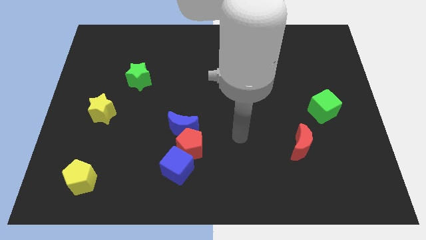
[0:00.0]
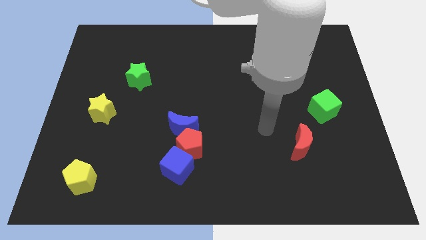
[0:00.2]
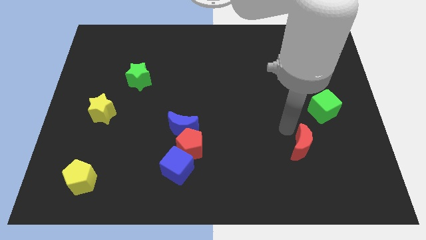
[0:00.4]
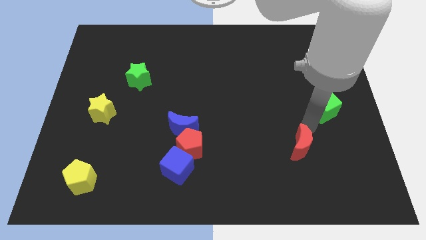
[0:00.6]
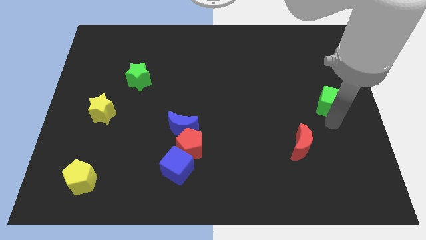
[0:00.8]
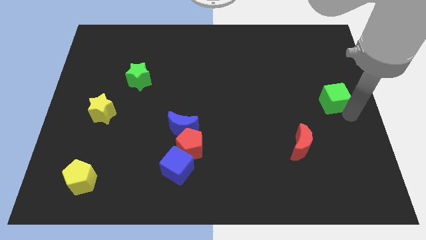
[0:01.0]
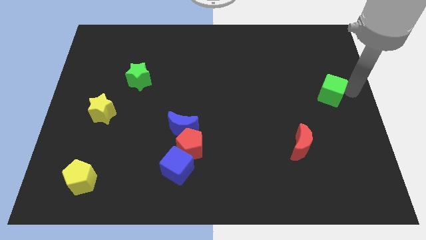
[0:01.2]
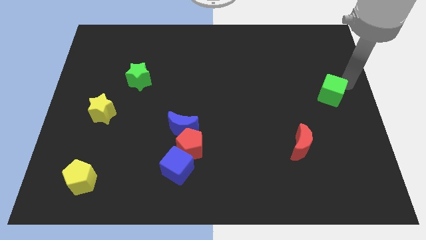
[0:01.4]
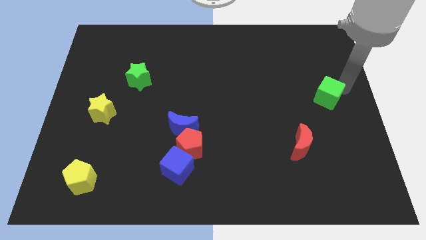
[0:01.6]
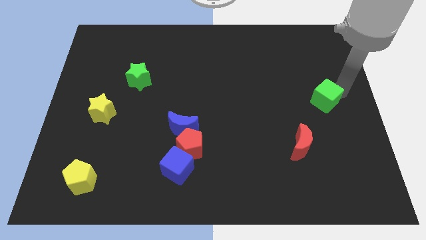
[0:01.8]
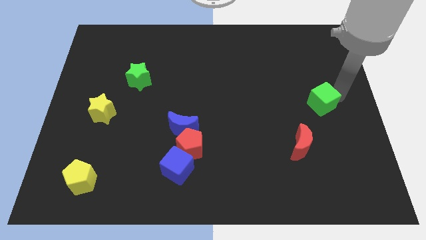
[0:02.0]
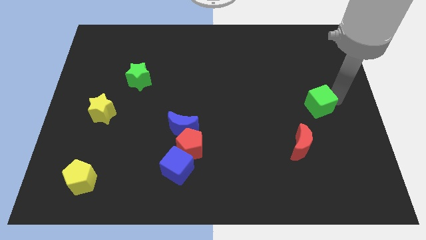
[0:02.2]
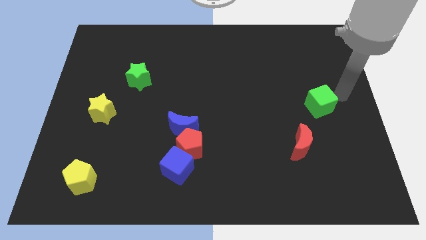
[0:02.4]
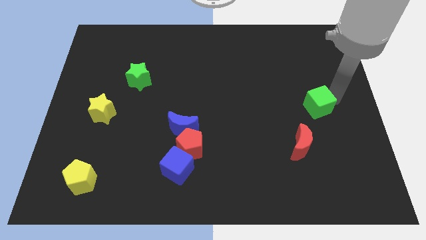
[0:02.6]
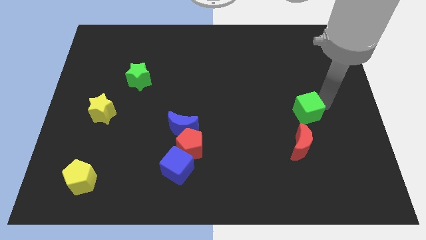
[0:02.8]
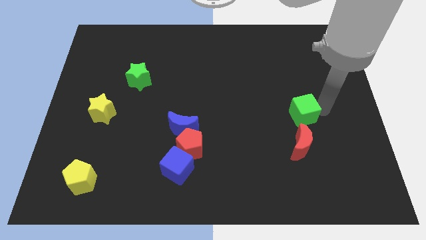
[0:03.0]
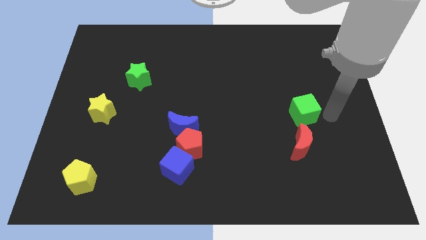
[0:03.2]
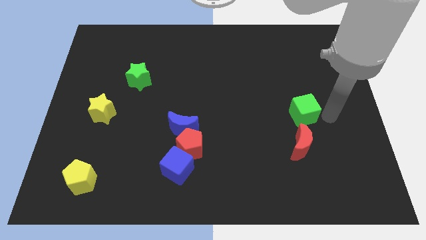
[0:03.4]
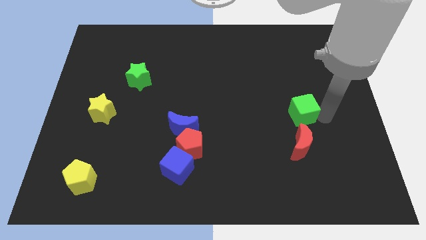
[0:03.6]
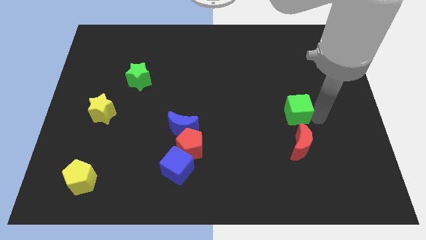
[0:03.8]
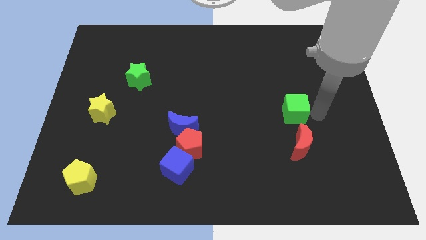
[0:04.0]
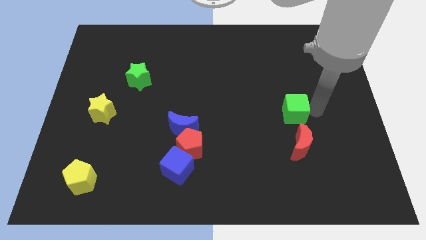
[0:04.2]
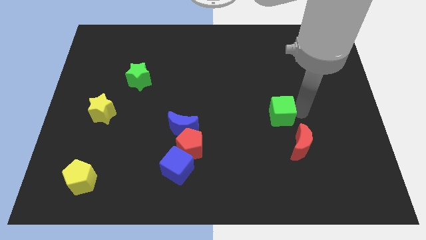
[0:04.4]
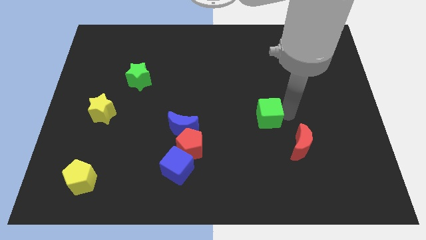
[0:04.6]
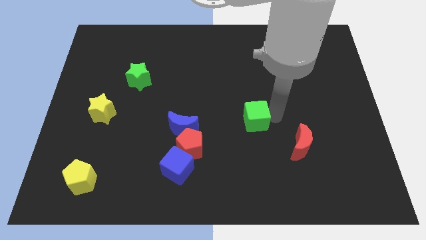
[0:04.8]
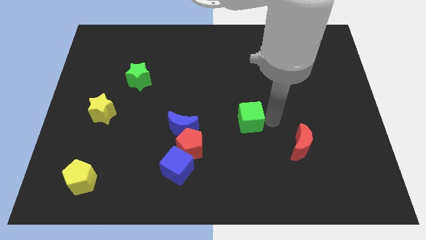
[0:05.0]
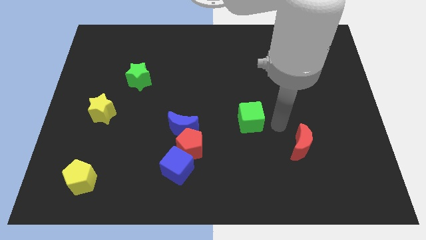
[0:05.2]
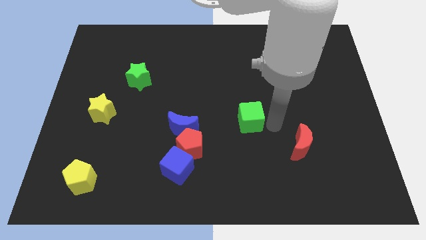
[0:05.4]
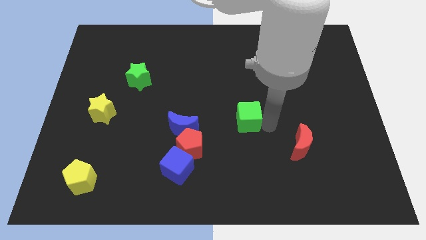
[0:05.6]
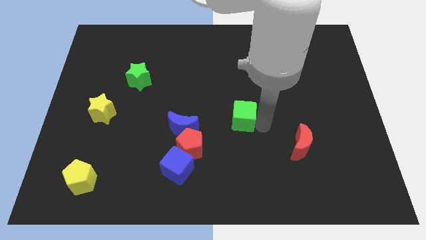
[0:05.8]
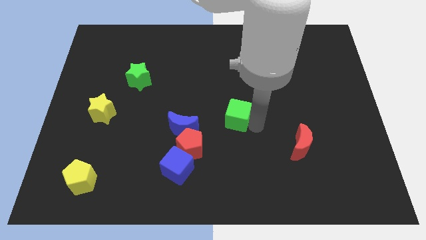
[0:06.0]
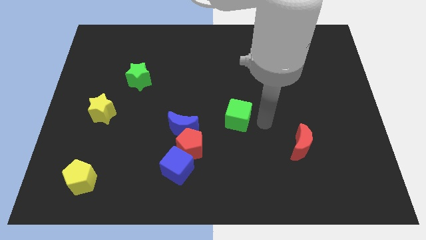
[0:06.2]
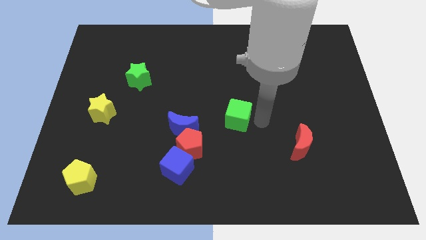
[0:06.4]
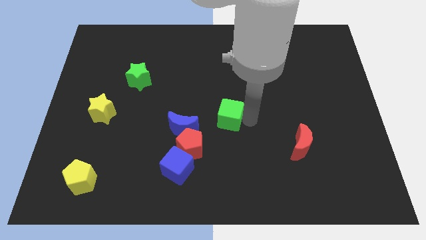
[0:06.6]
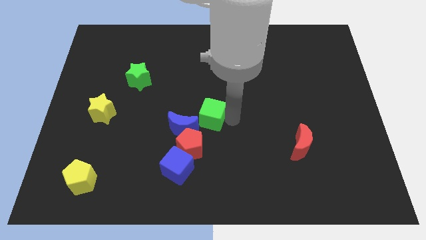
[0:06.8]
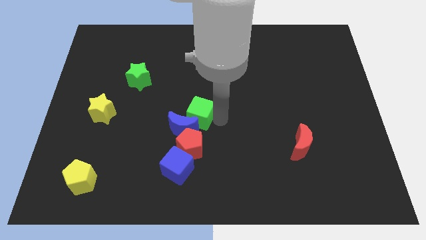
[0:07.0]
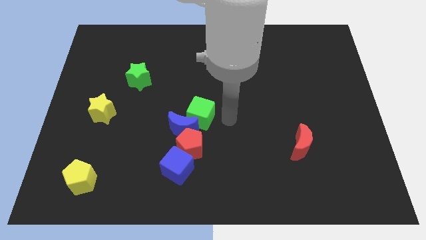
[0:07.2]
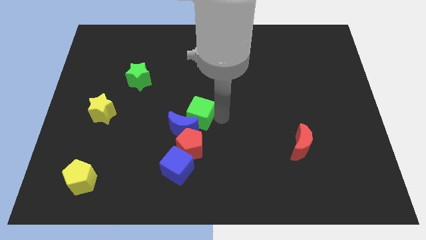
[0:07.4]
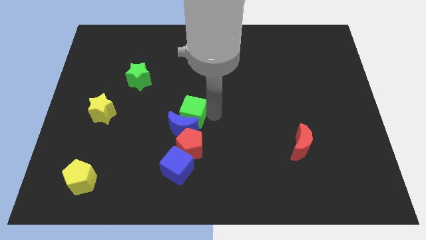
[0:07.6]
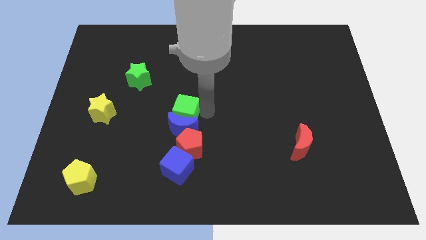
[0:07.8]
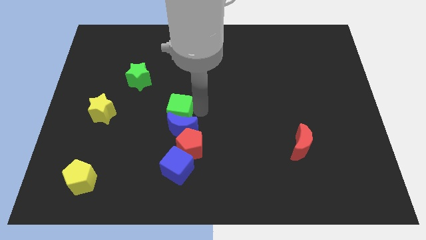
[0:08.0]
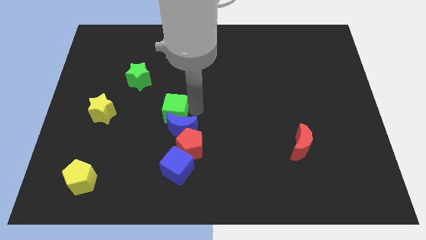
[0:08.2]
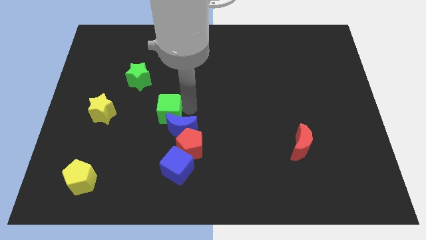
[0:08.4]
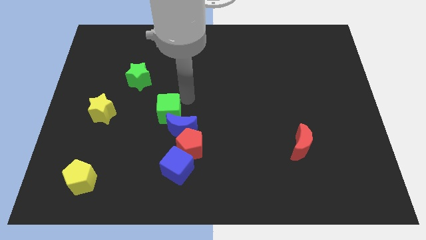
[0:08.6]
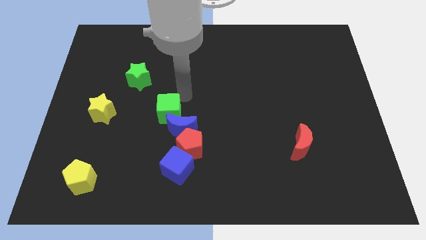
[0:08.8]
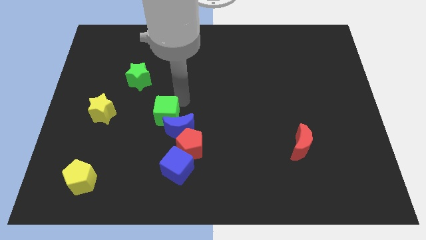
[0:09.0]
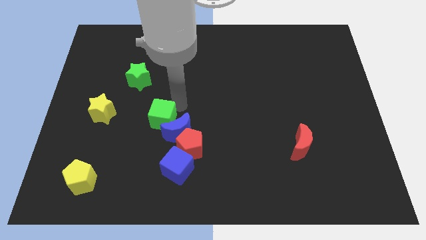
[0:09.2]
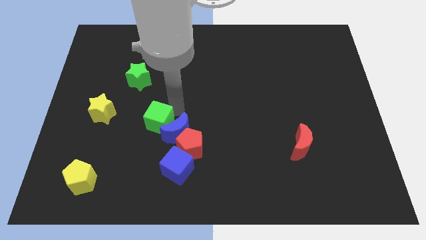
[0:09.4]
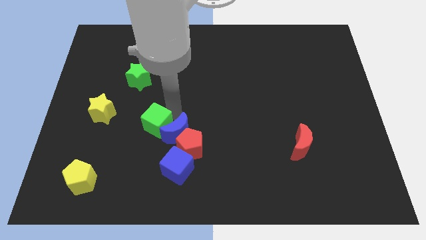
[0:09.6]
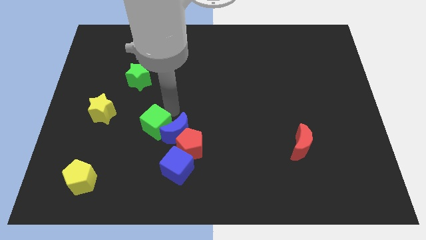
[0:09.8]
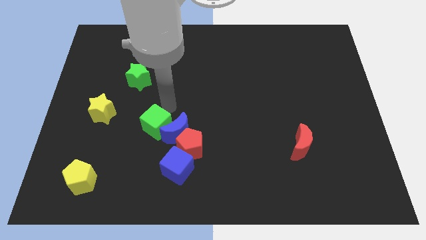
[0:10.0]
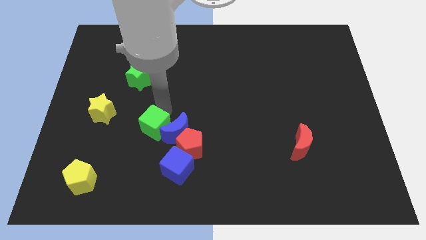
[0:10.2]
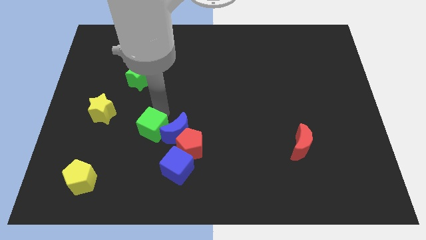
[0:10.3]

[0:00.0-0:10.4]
slide the green cube just left of the red pentagon

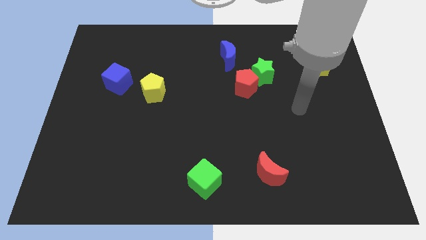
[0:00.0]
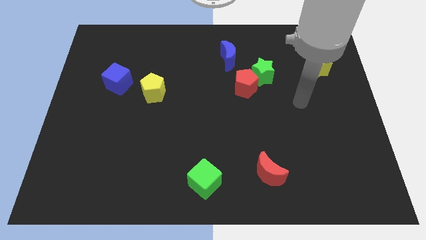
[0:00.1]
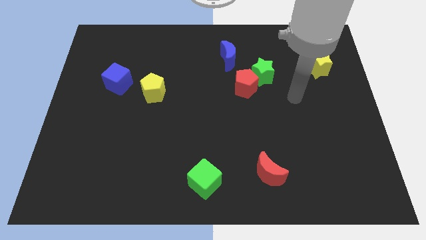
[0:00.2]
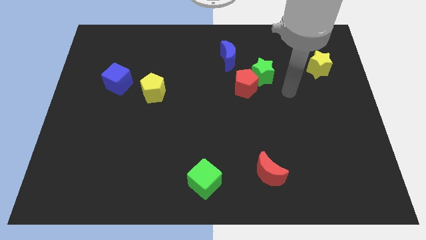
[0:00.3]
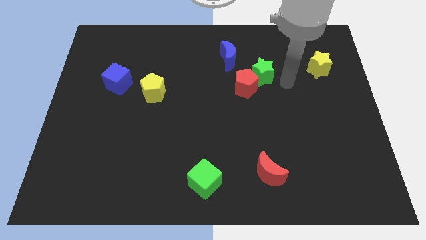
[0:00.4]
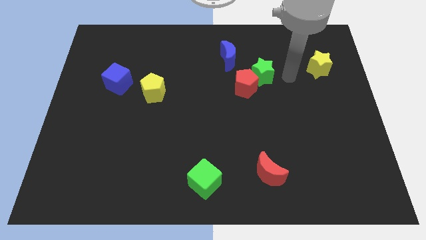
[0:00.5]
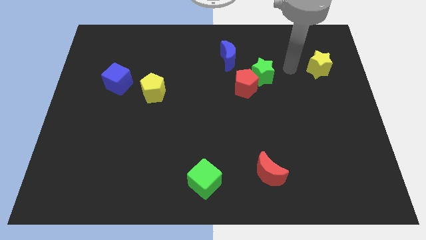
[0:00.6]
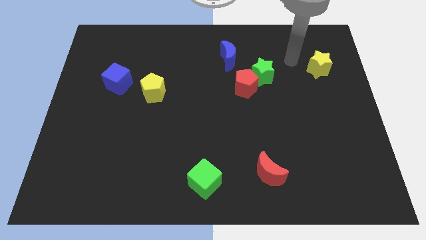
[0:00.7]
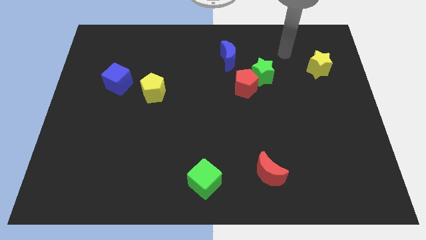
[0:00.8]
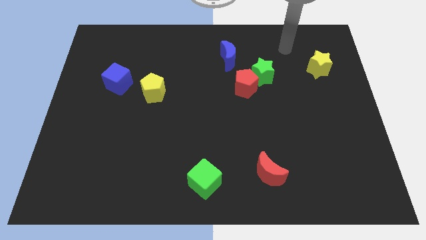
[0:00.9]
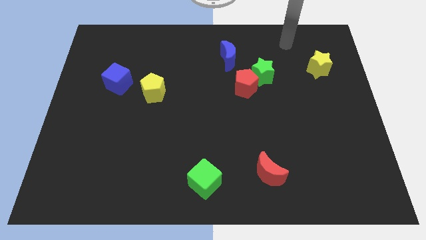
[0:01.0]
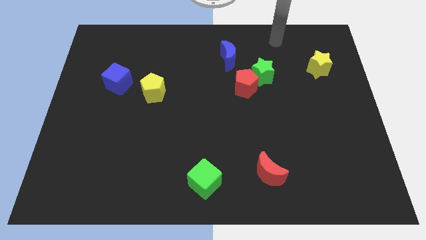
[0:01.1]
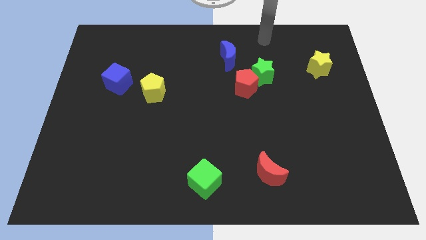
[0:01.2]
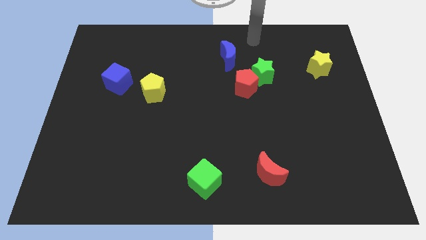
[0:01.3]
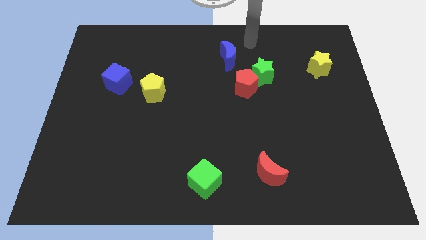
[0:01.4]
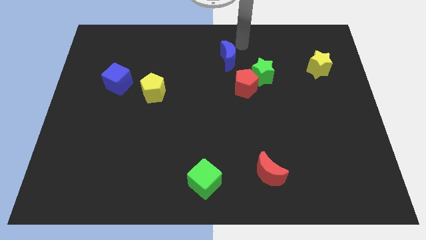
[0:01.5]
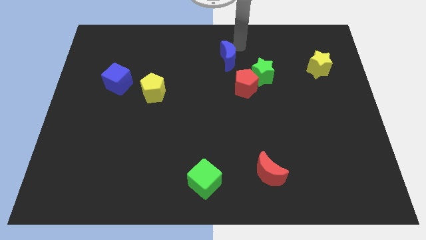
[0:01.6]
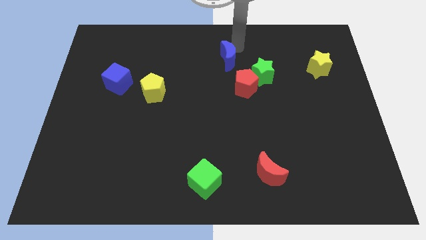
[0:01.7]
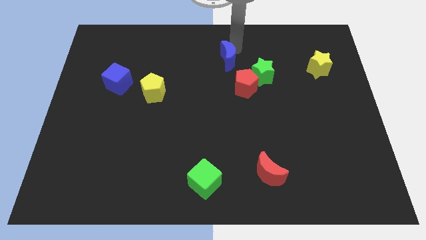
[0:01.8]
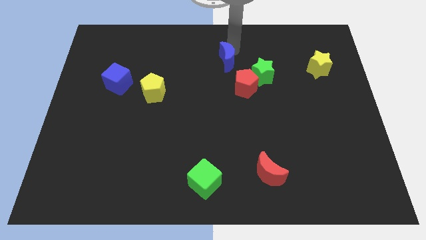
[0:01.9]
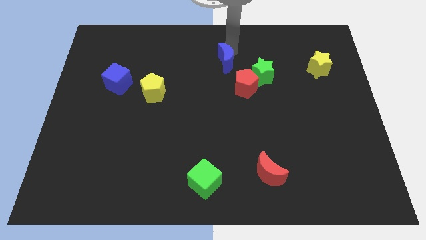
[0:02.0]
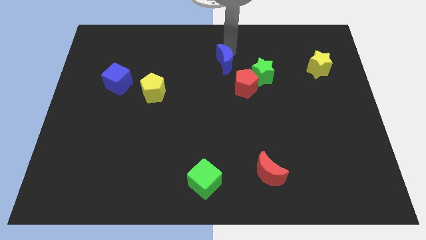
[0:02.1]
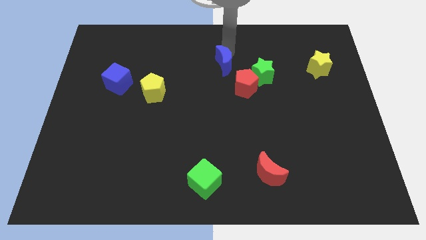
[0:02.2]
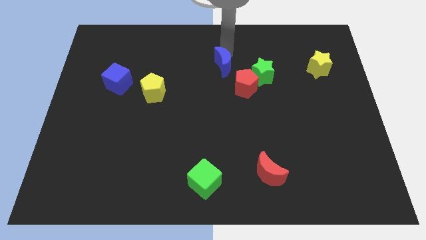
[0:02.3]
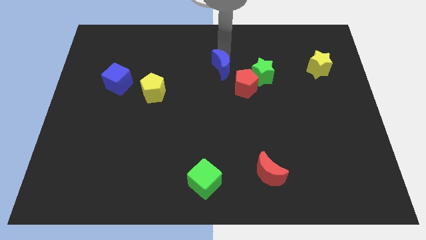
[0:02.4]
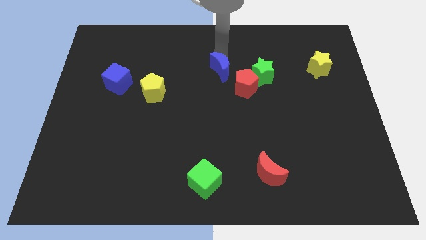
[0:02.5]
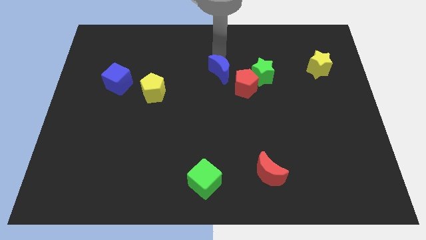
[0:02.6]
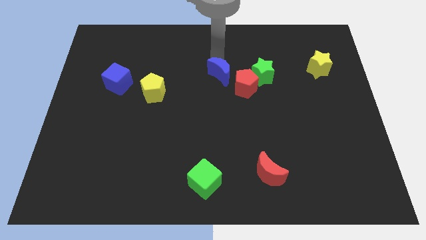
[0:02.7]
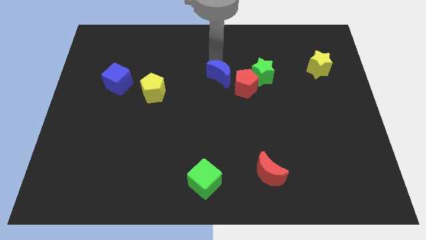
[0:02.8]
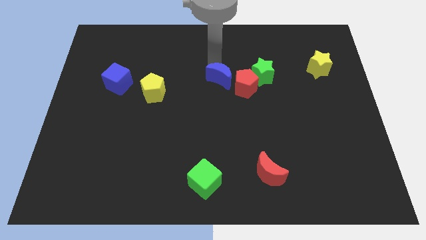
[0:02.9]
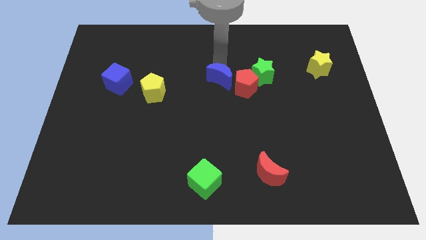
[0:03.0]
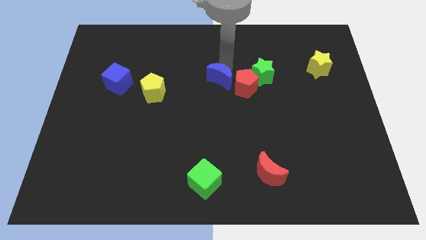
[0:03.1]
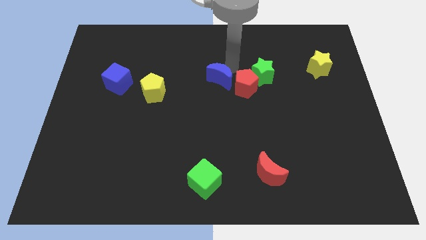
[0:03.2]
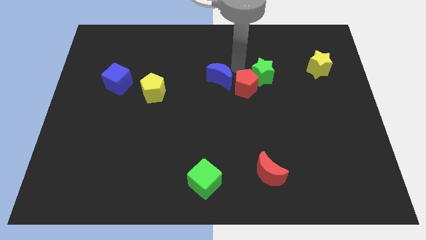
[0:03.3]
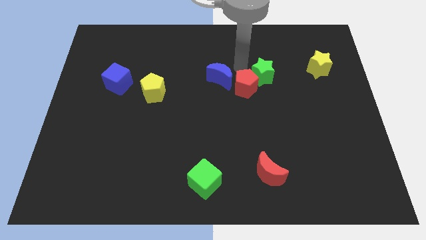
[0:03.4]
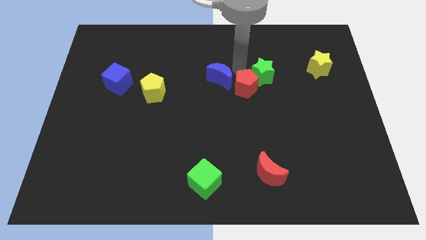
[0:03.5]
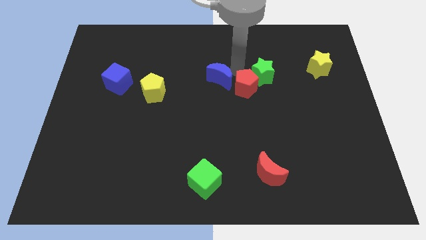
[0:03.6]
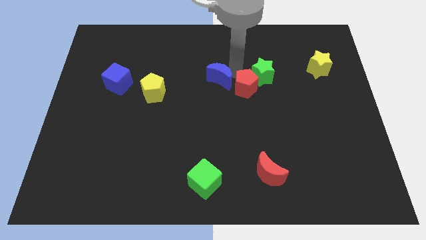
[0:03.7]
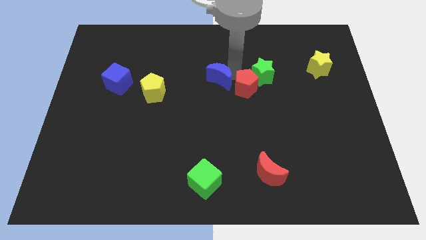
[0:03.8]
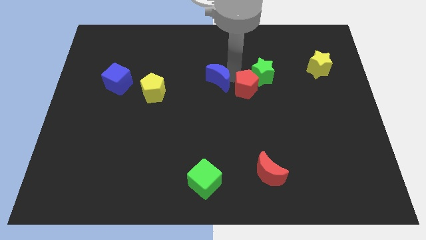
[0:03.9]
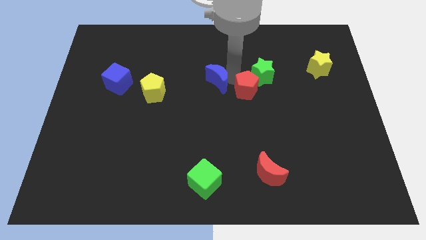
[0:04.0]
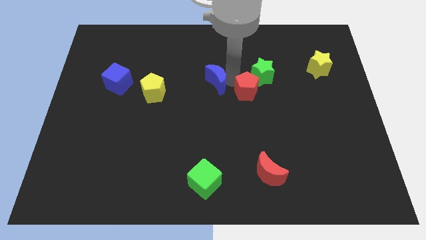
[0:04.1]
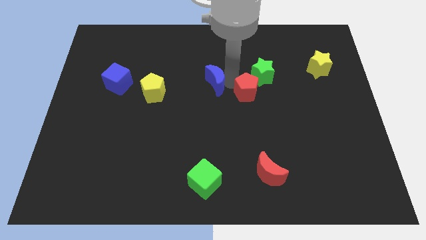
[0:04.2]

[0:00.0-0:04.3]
move the blue moon just right of the yellow pentagon
